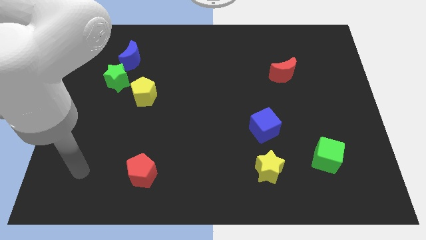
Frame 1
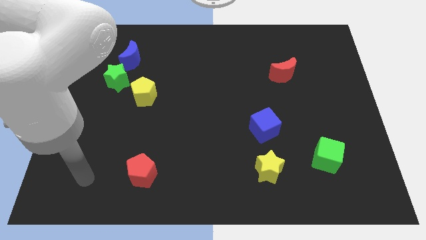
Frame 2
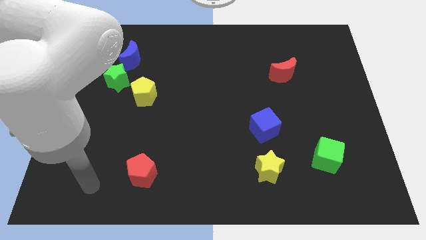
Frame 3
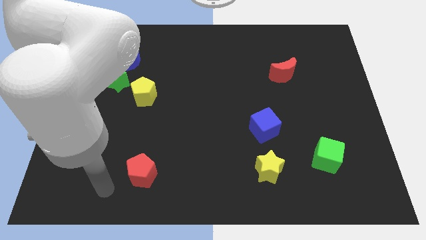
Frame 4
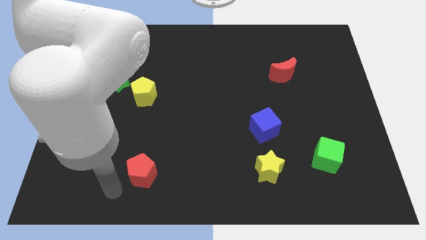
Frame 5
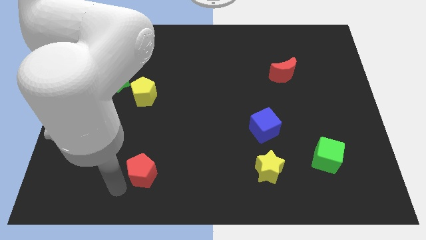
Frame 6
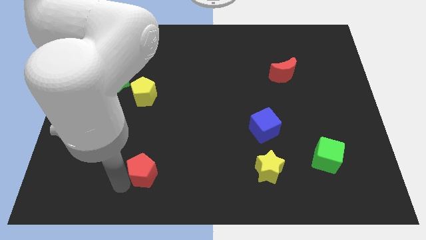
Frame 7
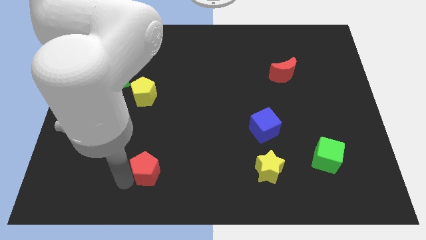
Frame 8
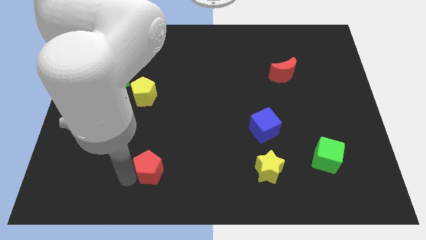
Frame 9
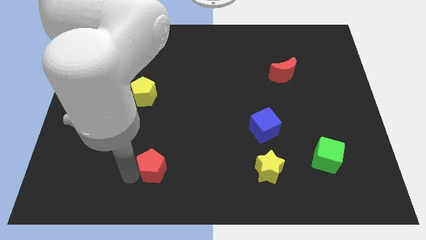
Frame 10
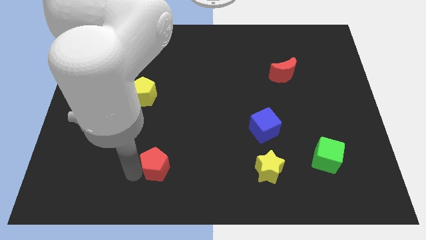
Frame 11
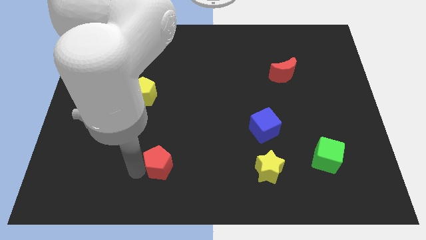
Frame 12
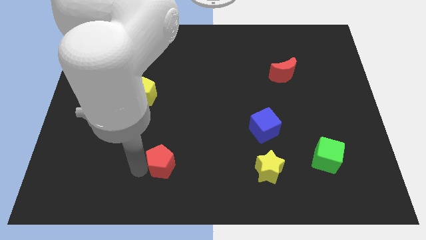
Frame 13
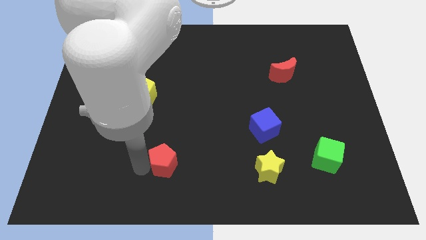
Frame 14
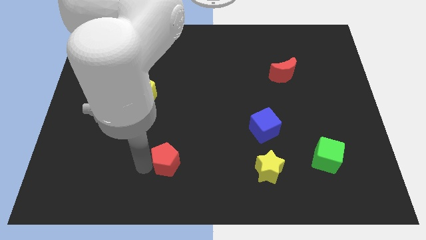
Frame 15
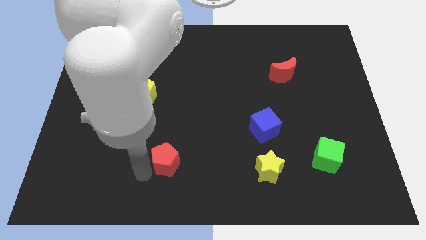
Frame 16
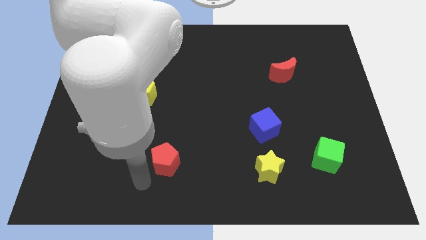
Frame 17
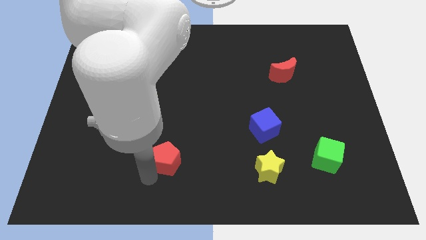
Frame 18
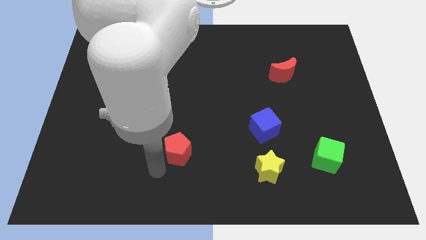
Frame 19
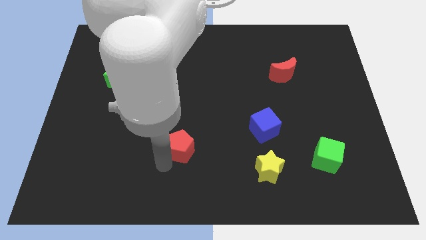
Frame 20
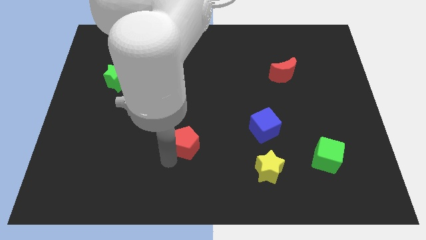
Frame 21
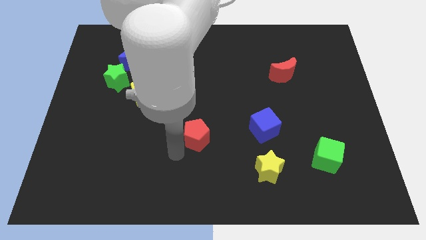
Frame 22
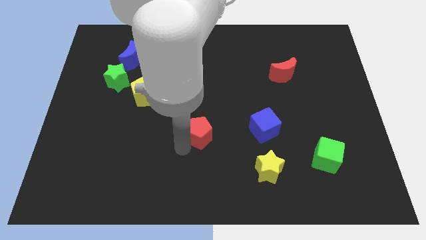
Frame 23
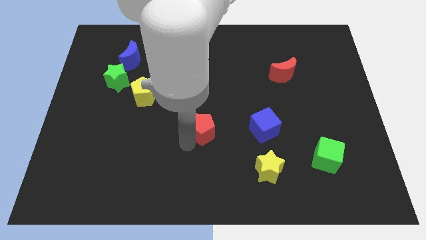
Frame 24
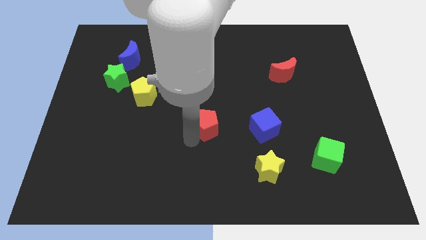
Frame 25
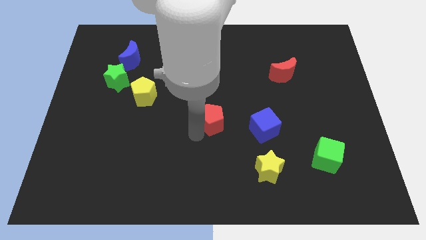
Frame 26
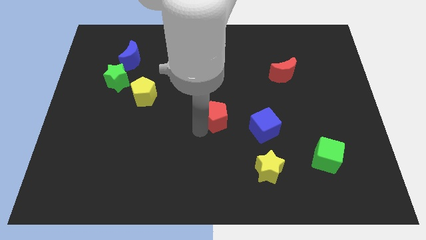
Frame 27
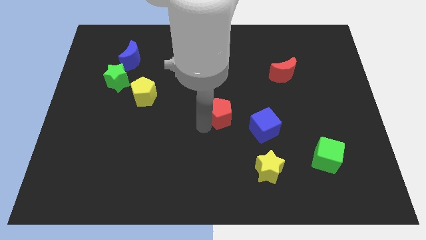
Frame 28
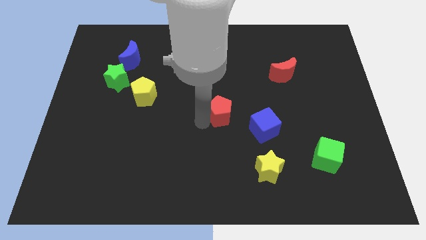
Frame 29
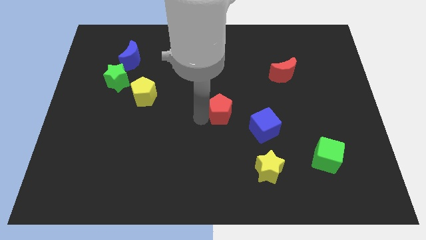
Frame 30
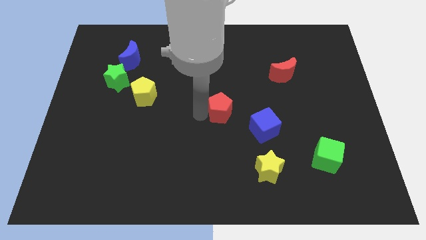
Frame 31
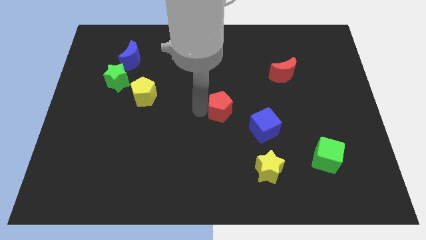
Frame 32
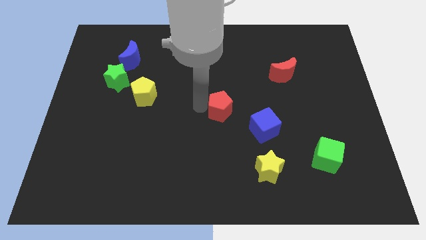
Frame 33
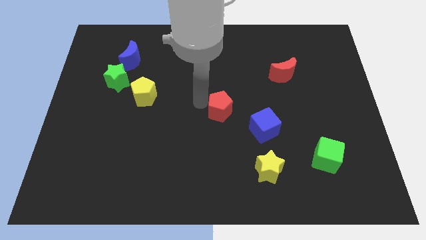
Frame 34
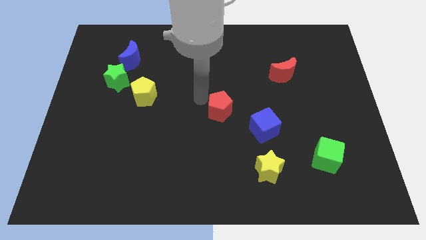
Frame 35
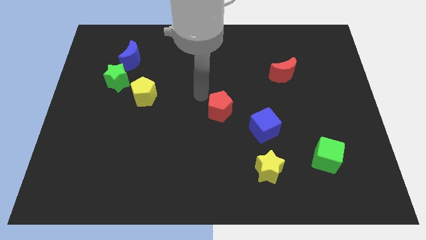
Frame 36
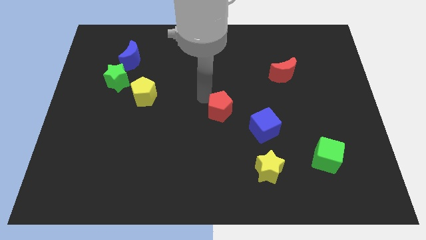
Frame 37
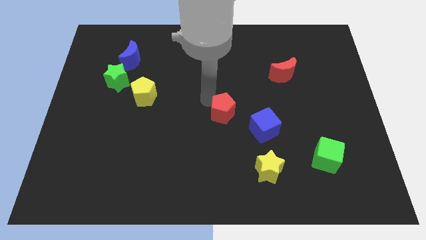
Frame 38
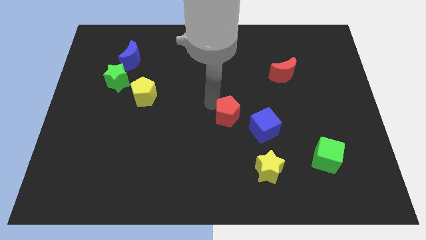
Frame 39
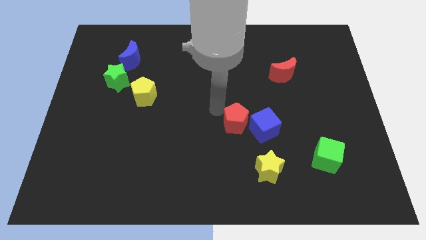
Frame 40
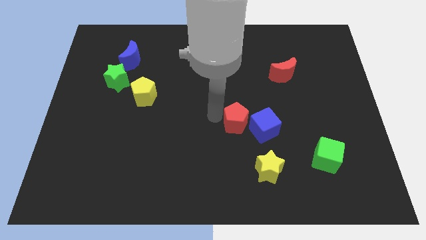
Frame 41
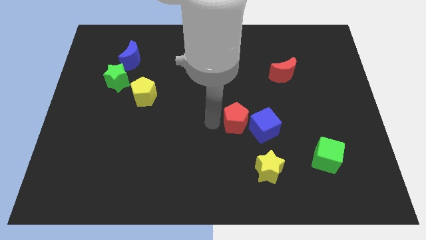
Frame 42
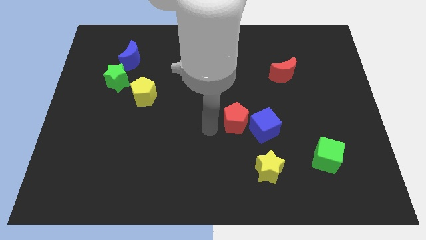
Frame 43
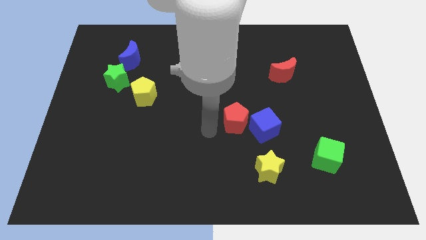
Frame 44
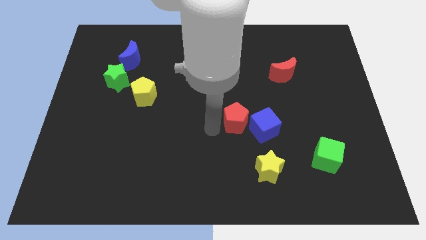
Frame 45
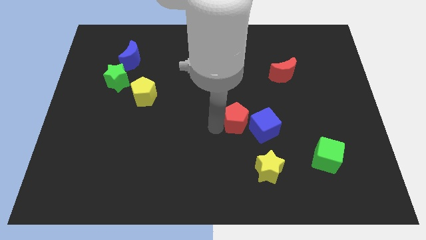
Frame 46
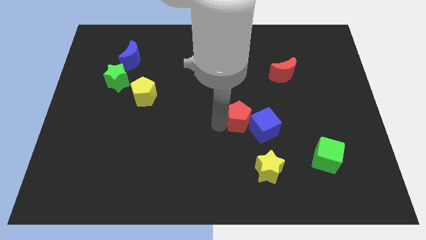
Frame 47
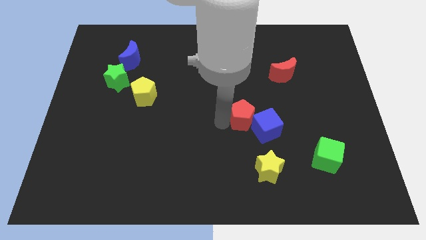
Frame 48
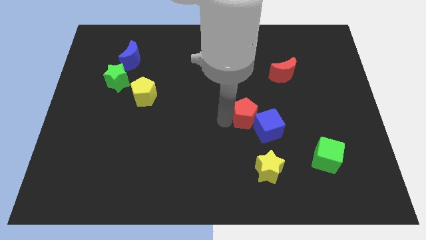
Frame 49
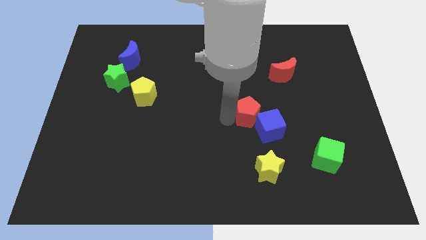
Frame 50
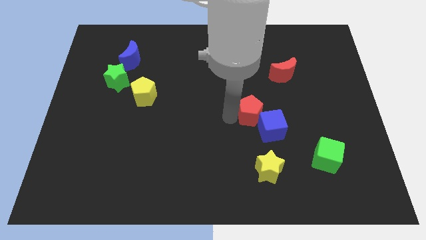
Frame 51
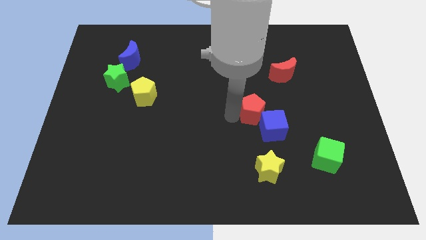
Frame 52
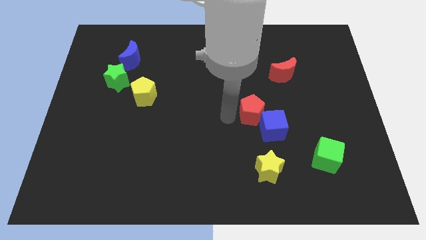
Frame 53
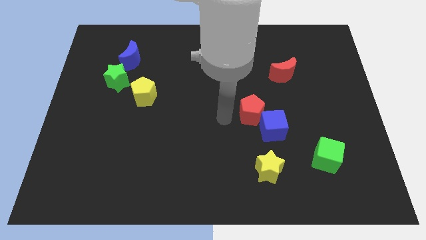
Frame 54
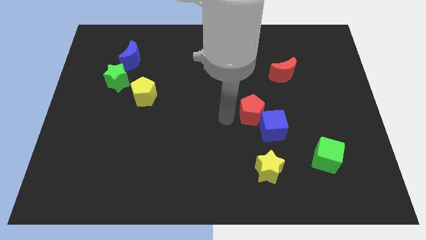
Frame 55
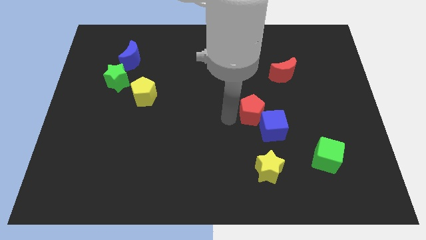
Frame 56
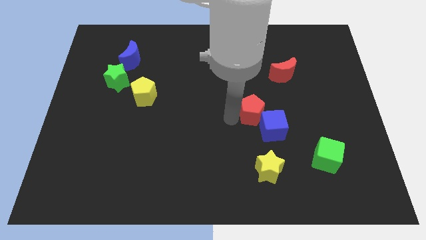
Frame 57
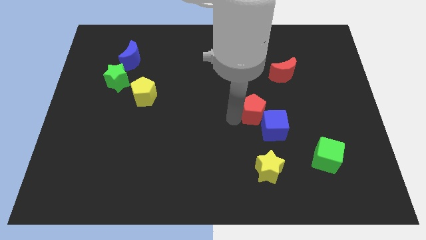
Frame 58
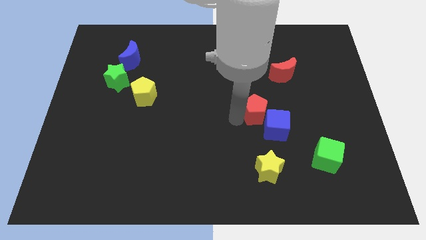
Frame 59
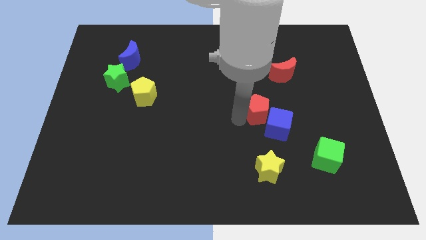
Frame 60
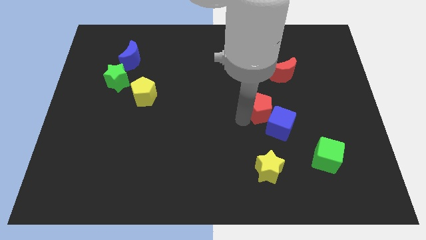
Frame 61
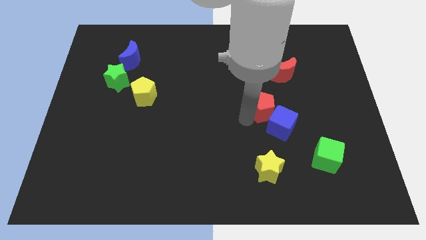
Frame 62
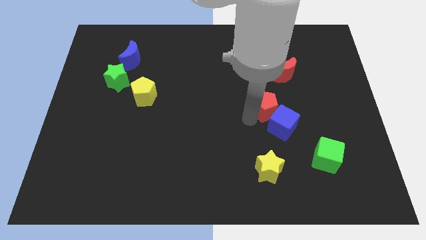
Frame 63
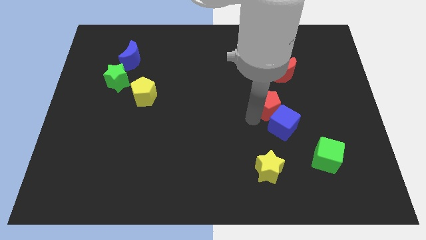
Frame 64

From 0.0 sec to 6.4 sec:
push the red pentagon to the bottom side of the red moon

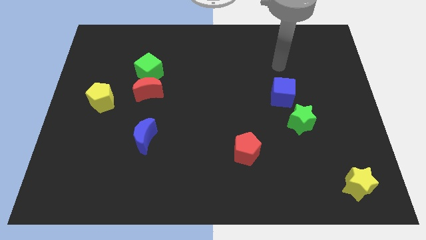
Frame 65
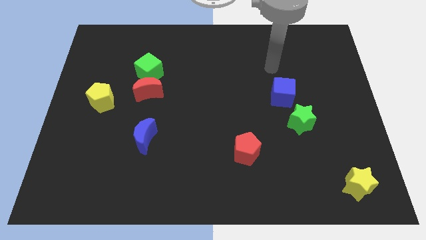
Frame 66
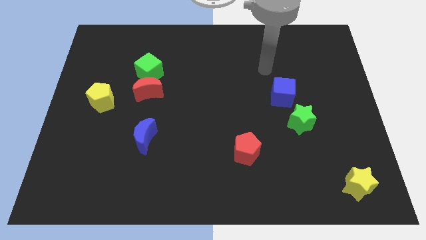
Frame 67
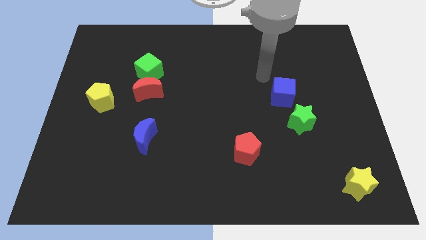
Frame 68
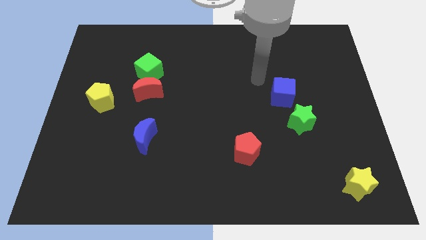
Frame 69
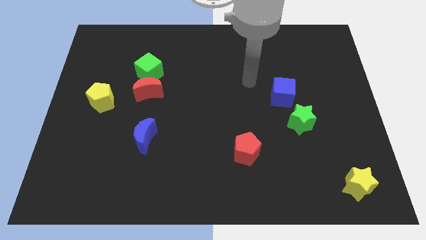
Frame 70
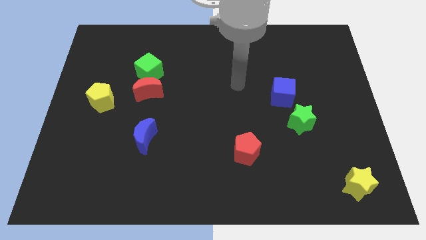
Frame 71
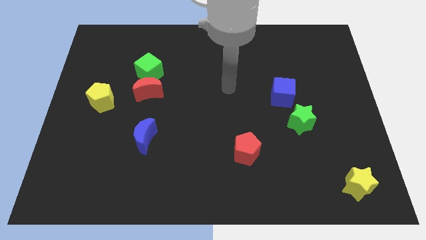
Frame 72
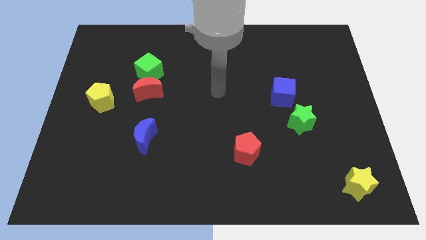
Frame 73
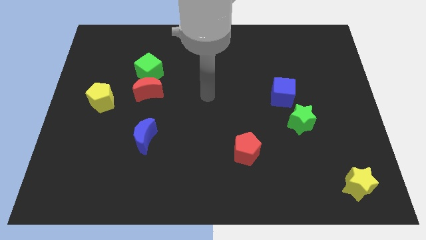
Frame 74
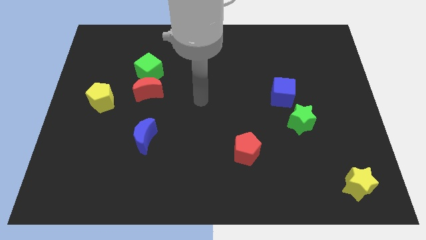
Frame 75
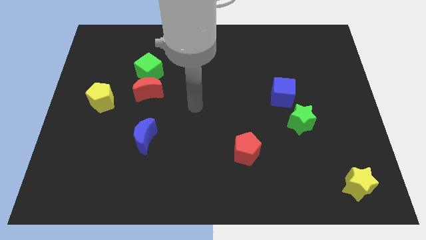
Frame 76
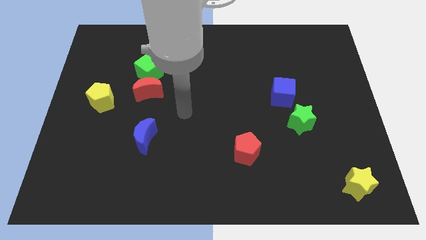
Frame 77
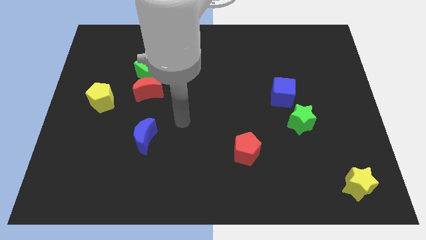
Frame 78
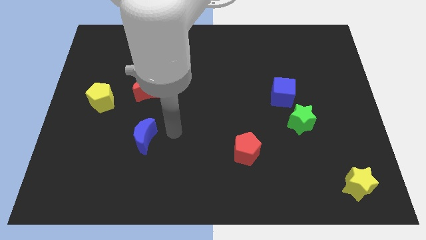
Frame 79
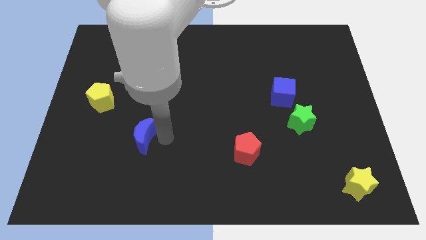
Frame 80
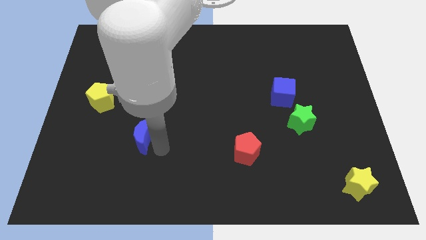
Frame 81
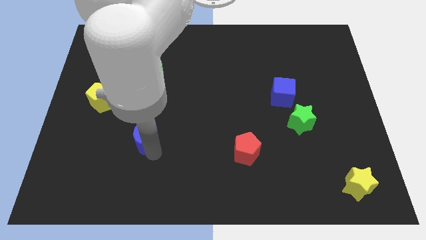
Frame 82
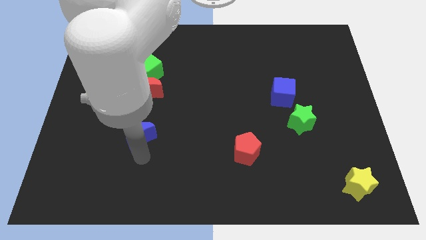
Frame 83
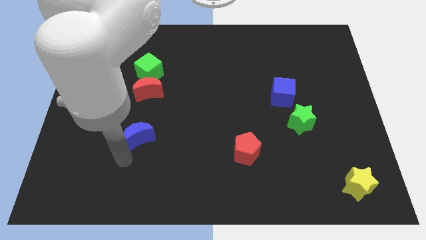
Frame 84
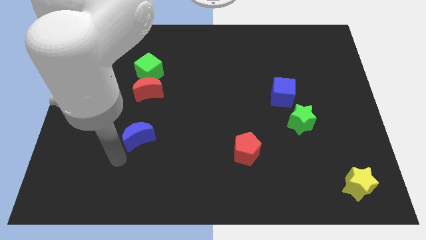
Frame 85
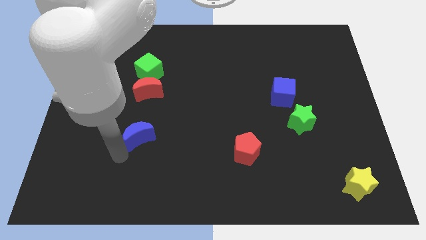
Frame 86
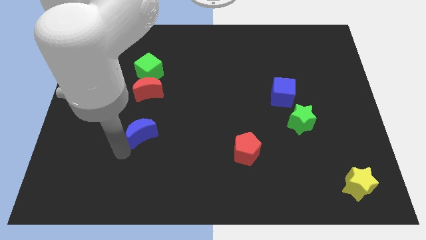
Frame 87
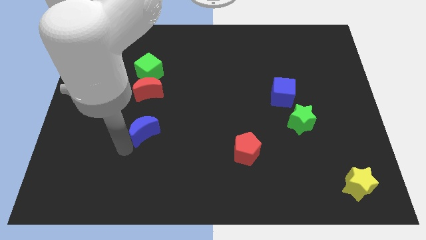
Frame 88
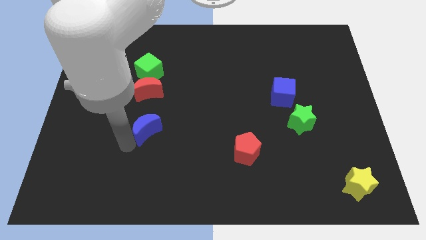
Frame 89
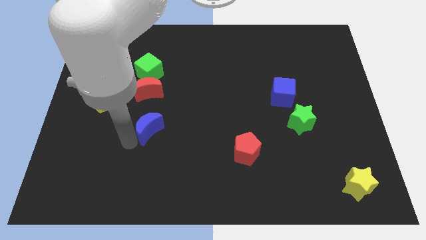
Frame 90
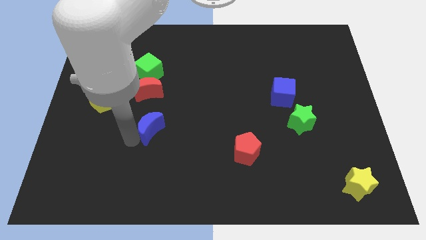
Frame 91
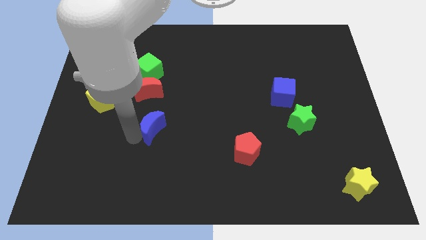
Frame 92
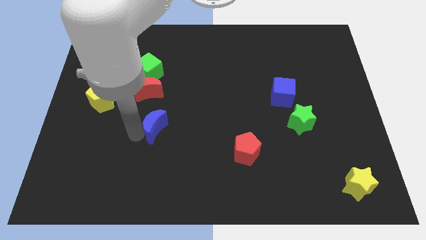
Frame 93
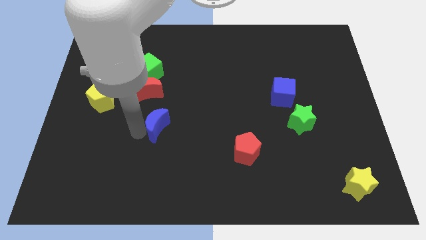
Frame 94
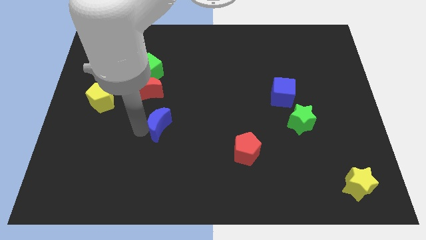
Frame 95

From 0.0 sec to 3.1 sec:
slide the blue moon to the bottom right side of the red moon
